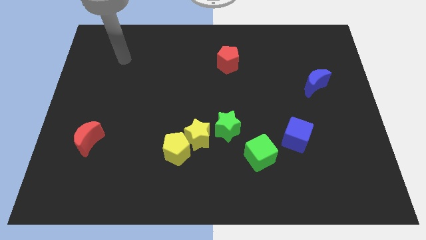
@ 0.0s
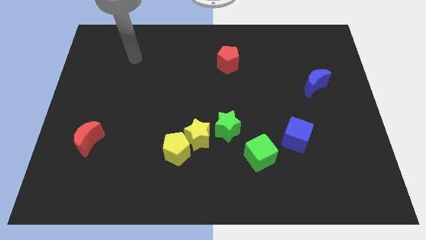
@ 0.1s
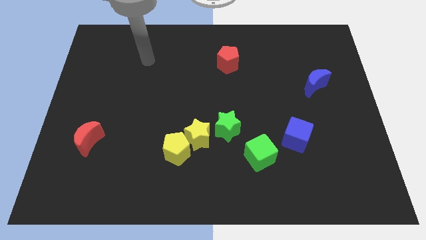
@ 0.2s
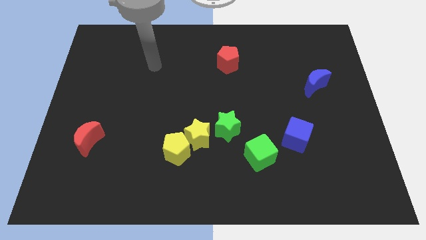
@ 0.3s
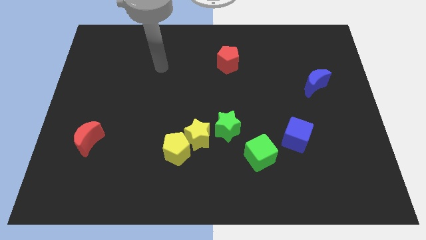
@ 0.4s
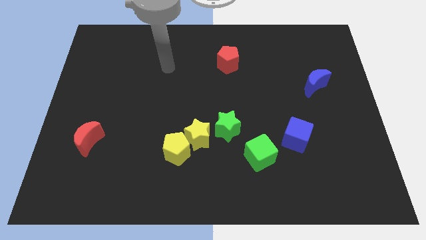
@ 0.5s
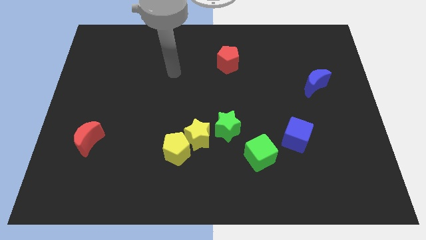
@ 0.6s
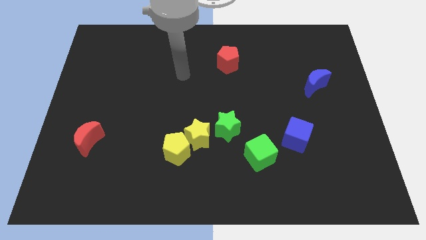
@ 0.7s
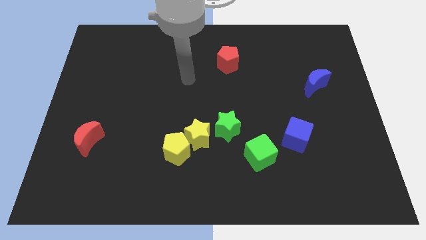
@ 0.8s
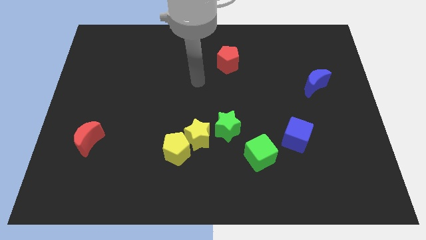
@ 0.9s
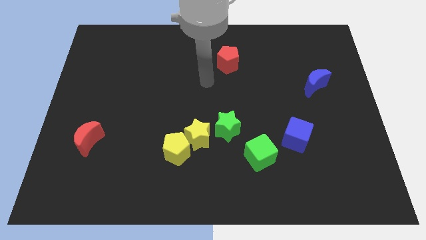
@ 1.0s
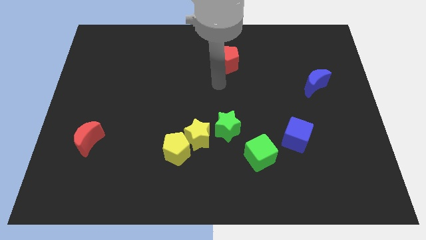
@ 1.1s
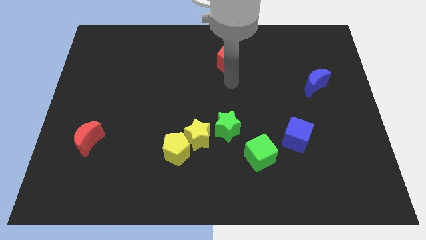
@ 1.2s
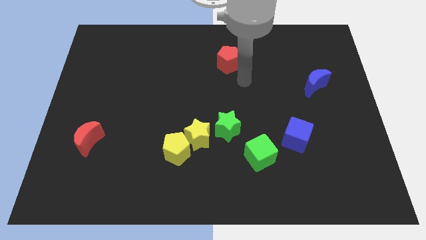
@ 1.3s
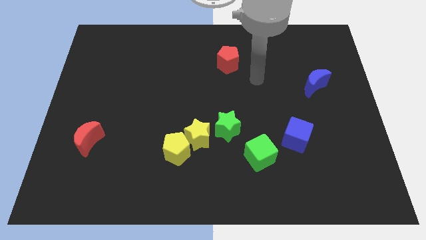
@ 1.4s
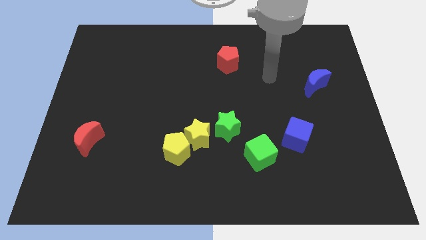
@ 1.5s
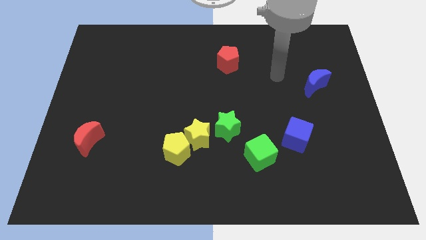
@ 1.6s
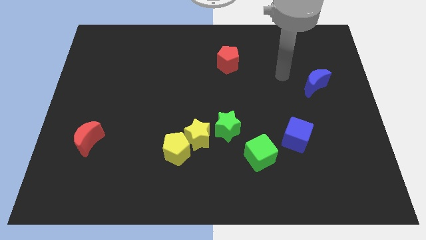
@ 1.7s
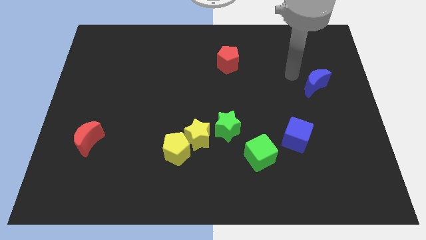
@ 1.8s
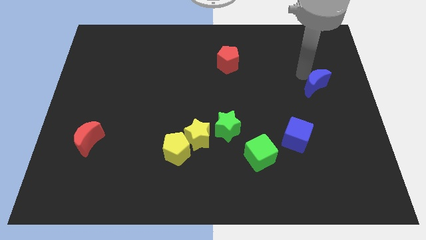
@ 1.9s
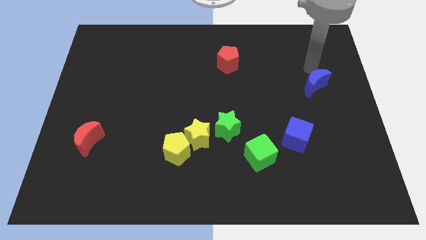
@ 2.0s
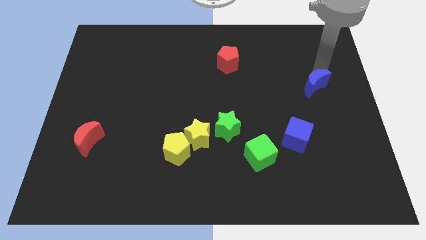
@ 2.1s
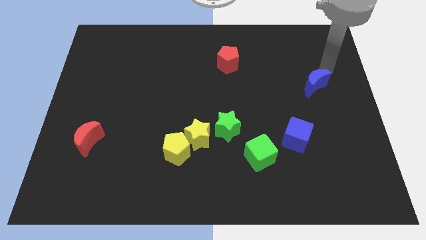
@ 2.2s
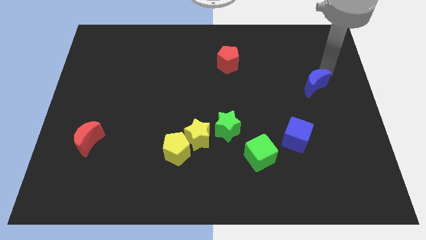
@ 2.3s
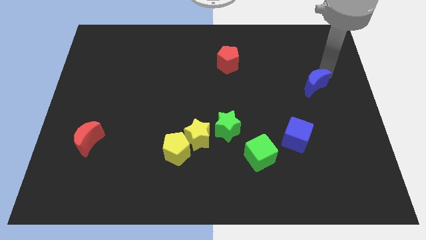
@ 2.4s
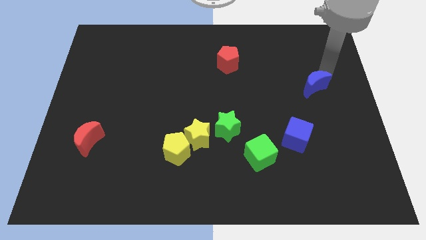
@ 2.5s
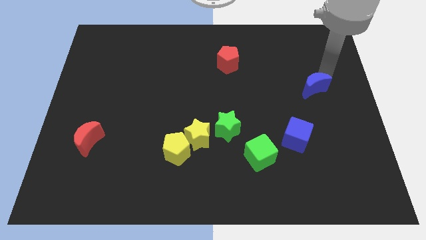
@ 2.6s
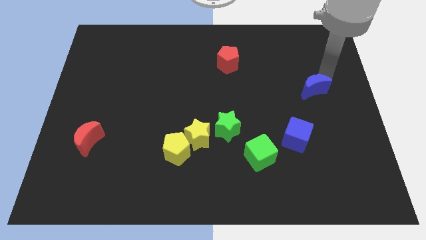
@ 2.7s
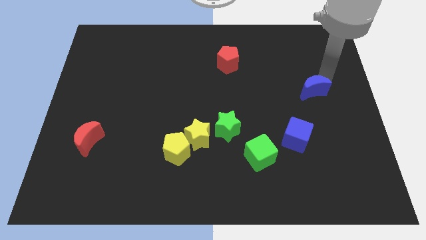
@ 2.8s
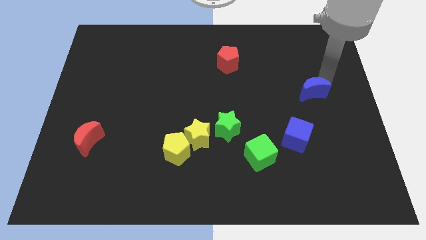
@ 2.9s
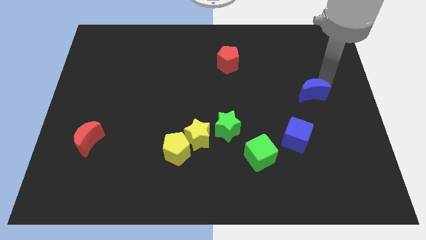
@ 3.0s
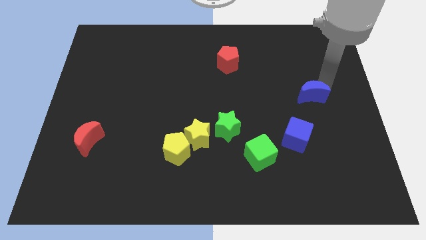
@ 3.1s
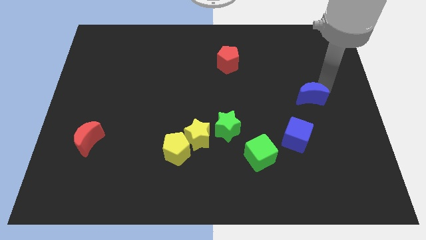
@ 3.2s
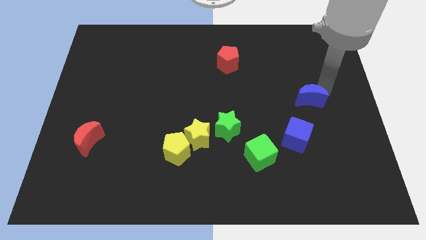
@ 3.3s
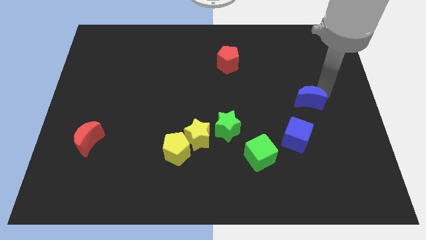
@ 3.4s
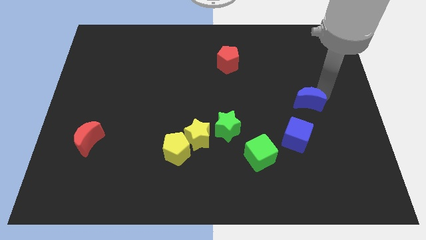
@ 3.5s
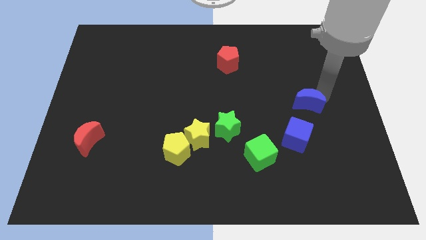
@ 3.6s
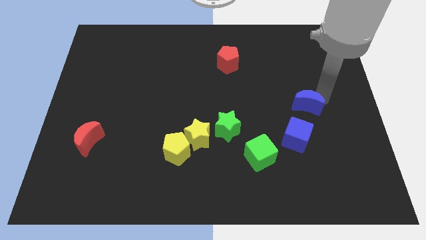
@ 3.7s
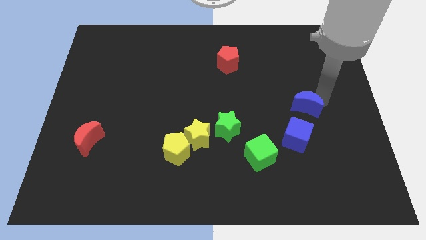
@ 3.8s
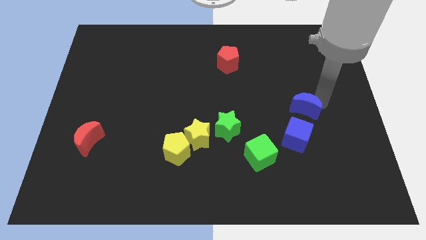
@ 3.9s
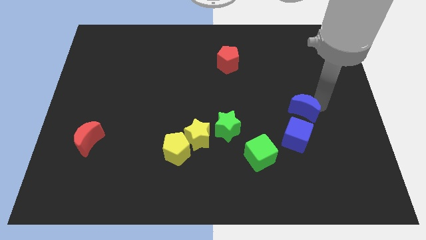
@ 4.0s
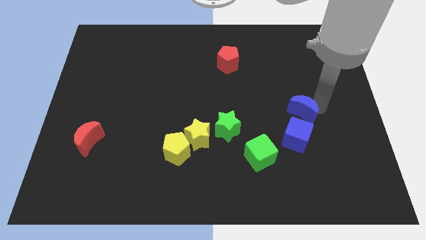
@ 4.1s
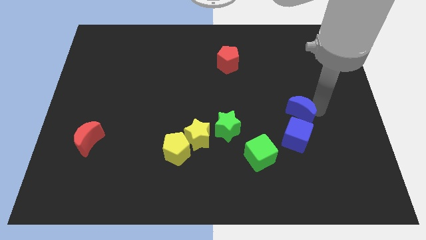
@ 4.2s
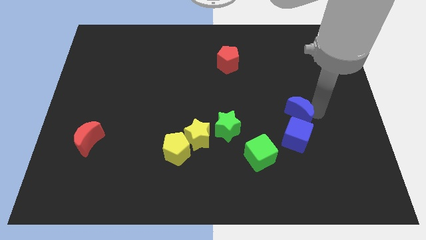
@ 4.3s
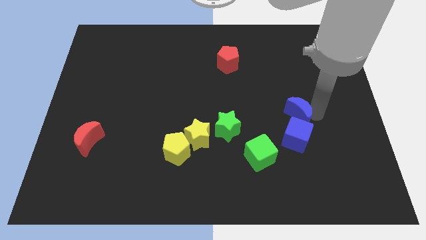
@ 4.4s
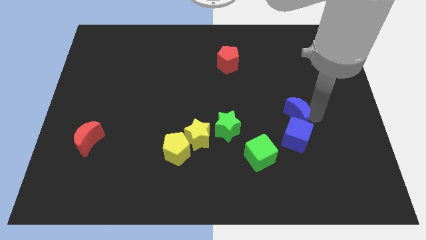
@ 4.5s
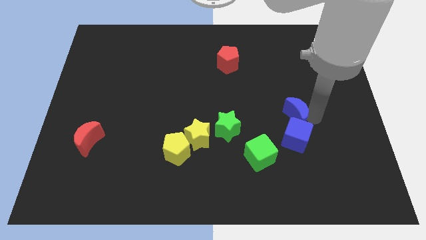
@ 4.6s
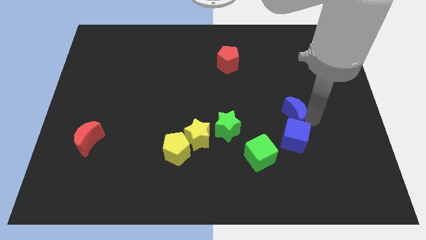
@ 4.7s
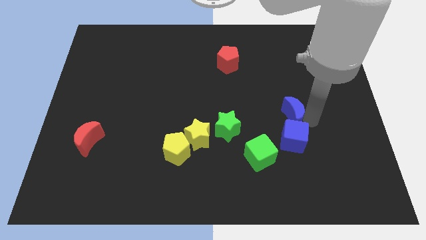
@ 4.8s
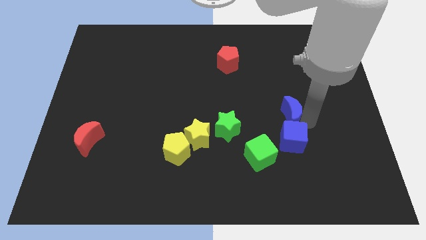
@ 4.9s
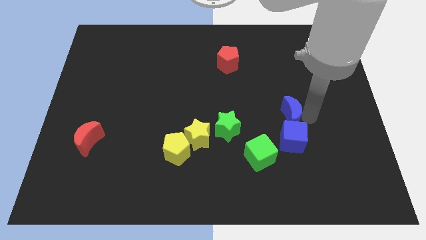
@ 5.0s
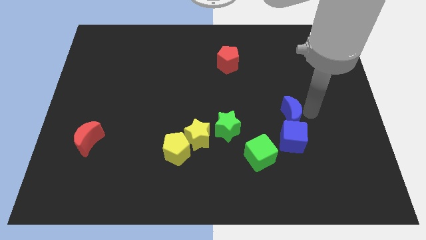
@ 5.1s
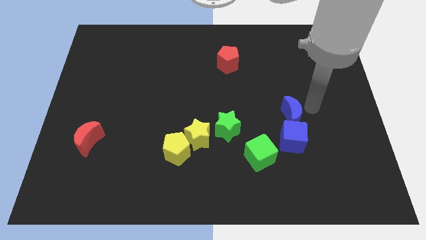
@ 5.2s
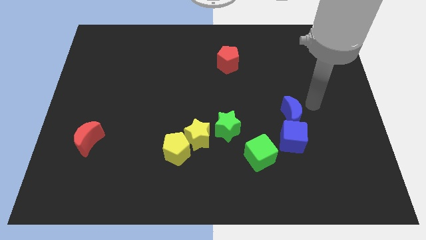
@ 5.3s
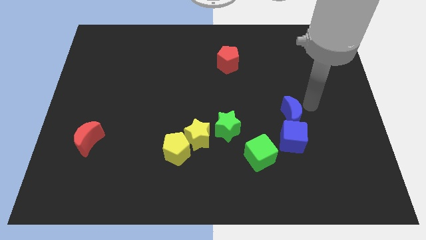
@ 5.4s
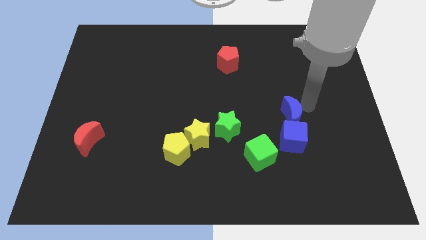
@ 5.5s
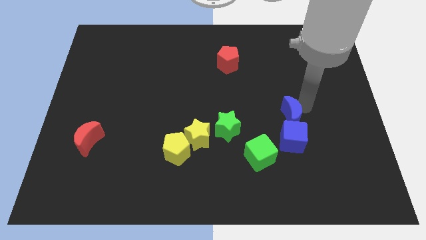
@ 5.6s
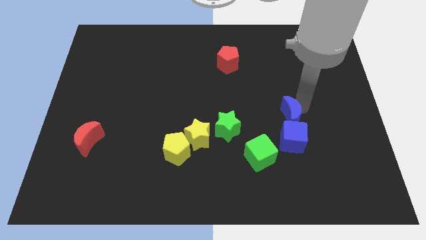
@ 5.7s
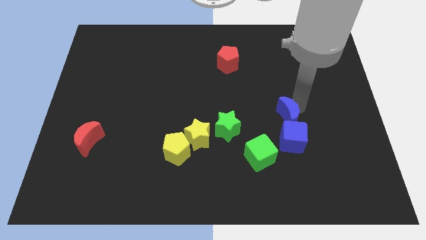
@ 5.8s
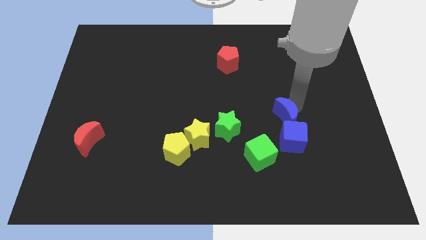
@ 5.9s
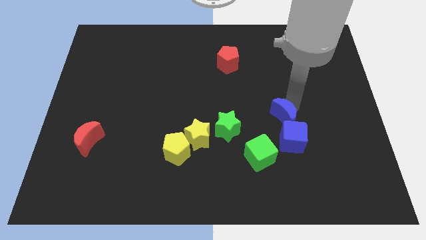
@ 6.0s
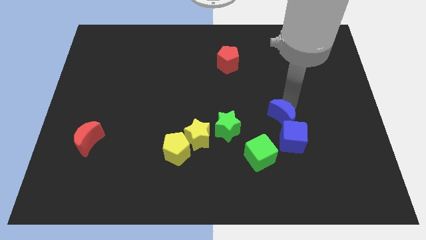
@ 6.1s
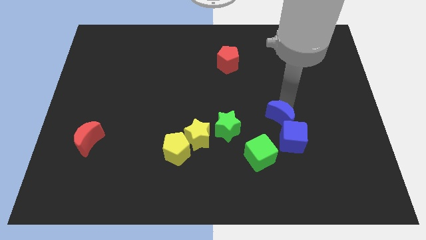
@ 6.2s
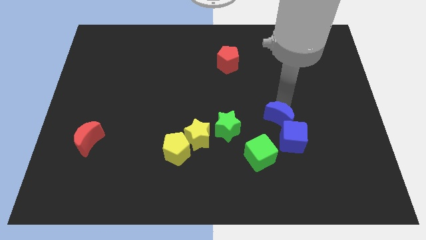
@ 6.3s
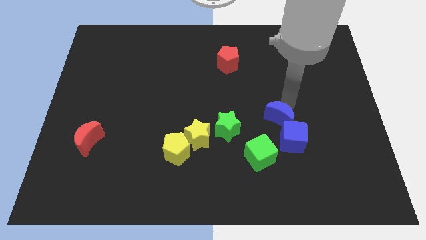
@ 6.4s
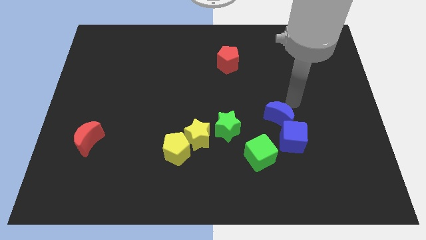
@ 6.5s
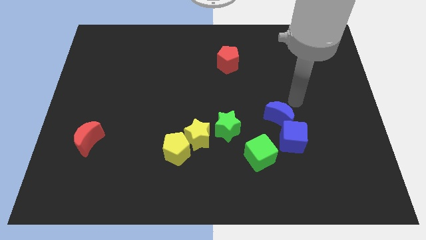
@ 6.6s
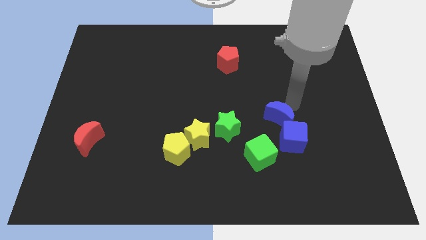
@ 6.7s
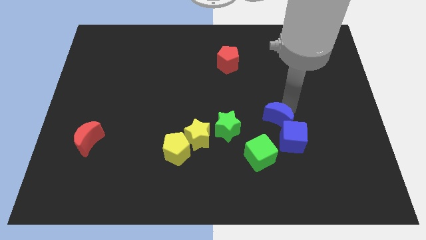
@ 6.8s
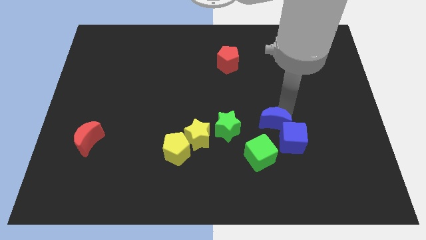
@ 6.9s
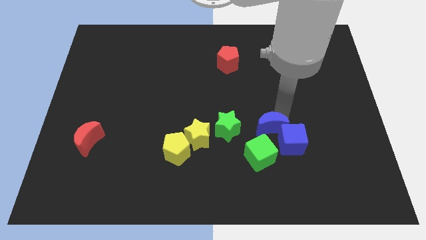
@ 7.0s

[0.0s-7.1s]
move the blue moon just left of the blue cube
